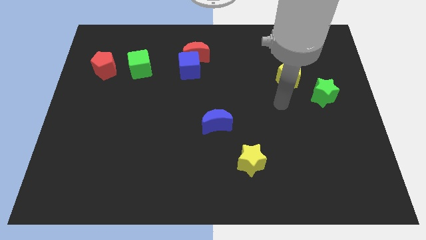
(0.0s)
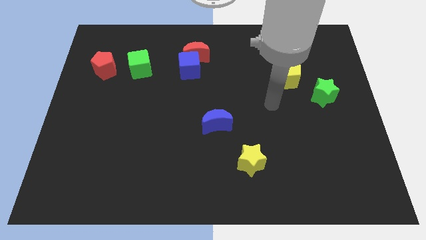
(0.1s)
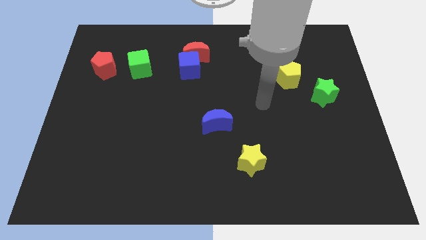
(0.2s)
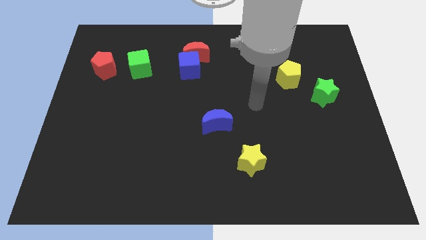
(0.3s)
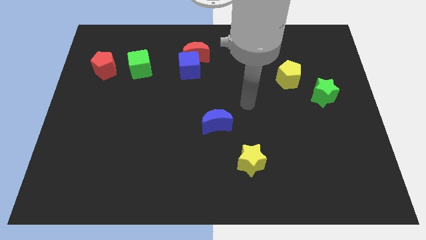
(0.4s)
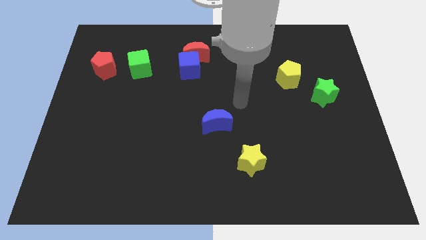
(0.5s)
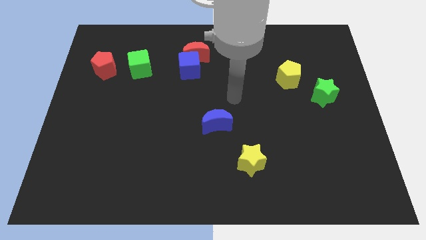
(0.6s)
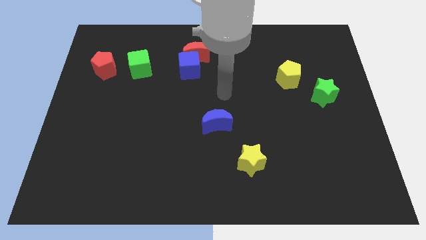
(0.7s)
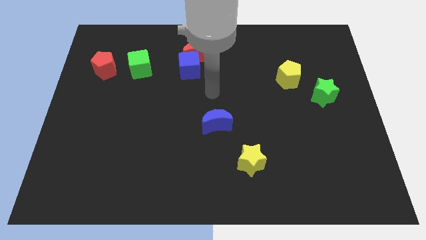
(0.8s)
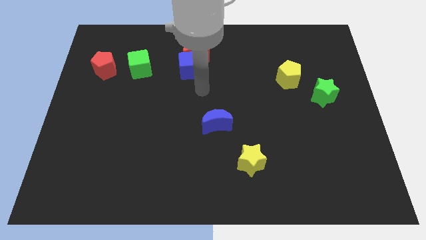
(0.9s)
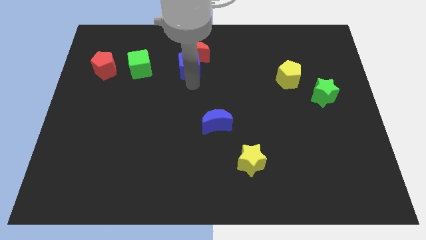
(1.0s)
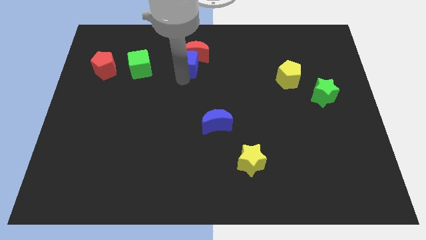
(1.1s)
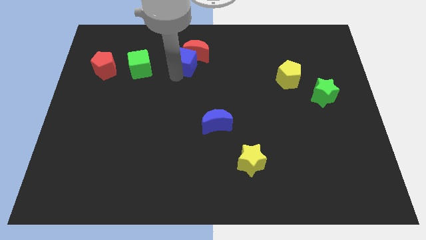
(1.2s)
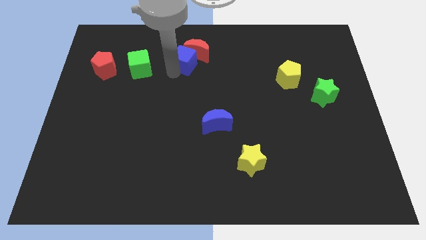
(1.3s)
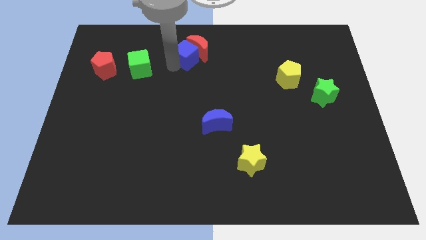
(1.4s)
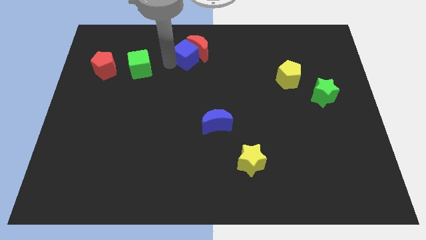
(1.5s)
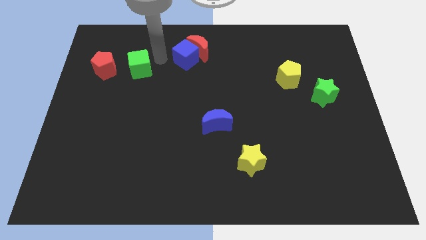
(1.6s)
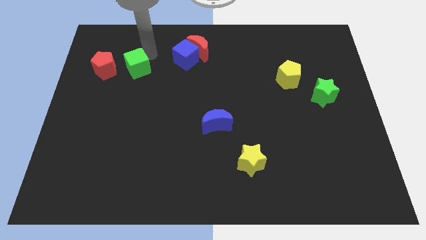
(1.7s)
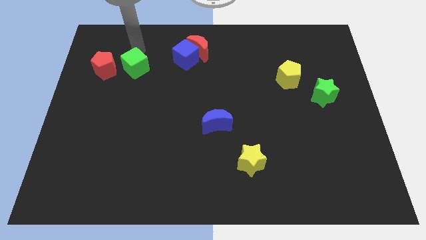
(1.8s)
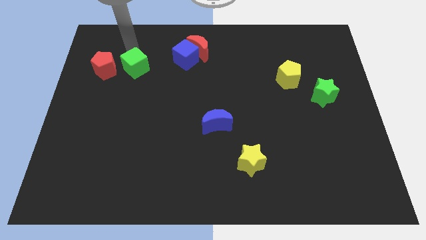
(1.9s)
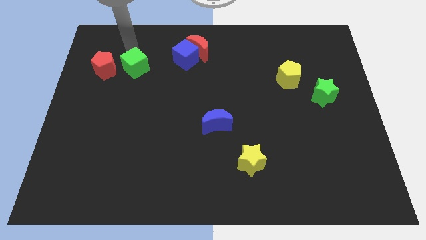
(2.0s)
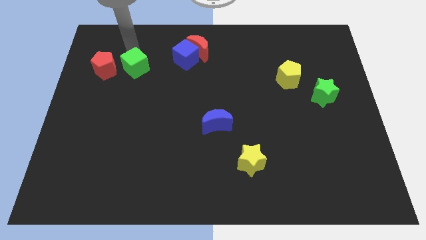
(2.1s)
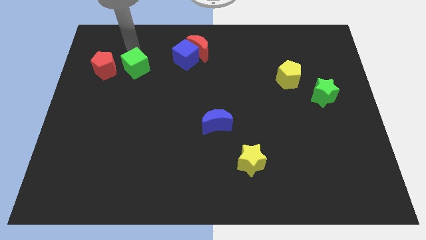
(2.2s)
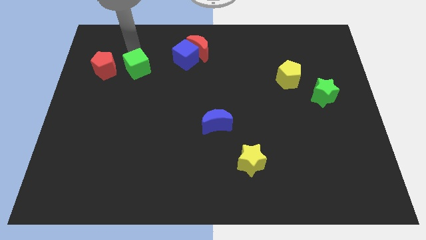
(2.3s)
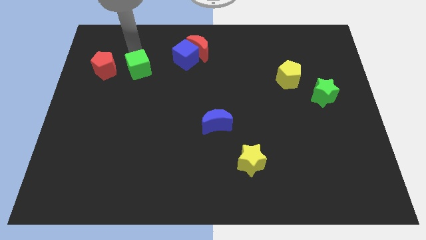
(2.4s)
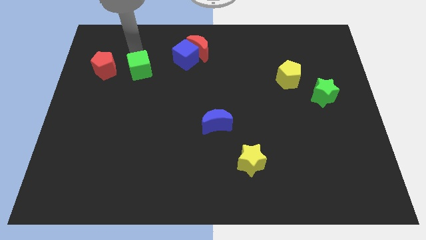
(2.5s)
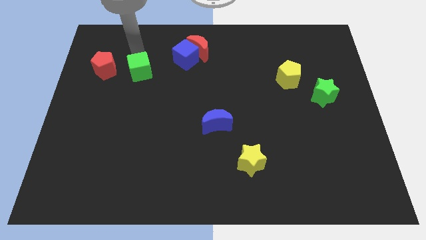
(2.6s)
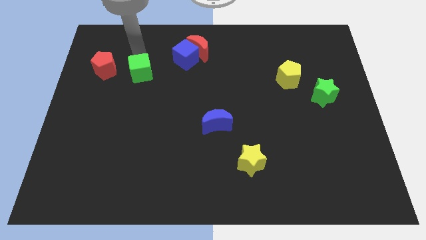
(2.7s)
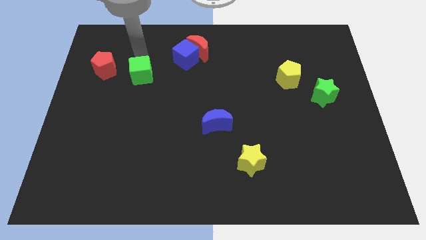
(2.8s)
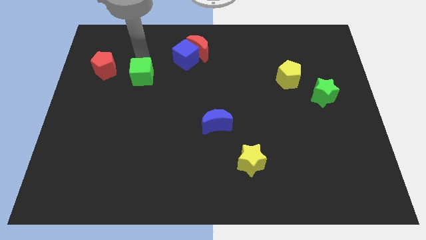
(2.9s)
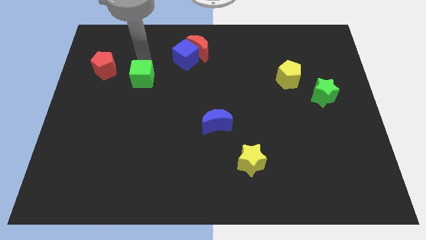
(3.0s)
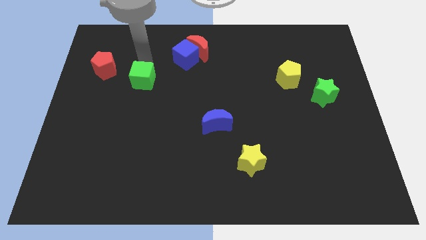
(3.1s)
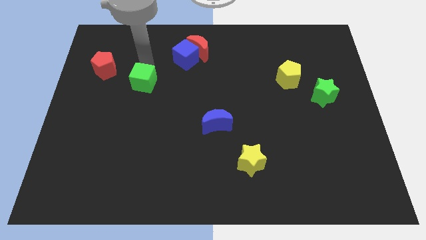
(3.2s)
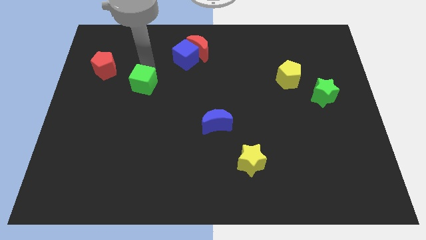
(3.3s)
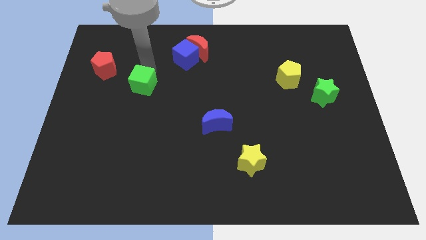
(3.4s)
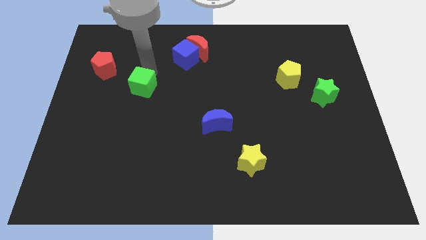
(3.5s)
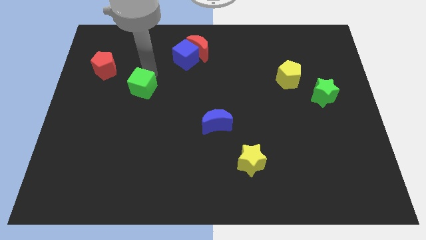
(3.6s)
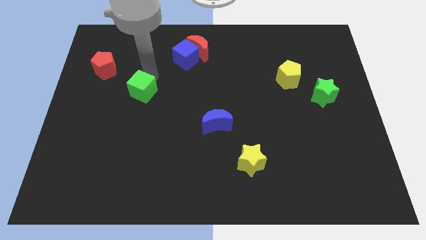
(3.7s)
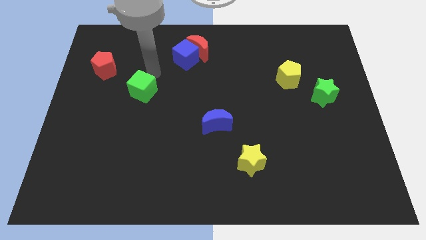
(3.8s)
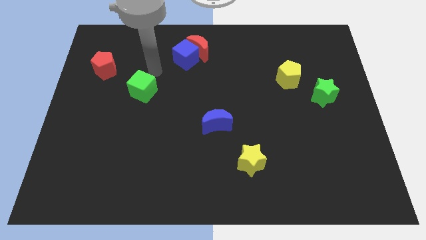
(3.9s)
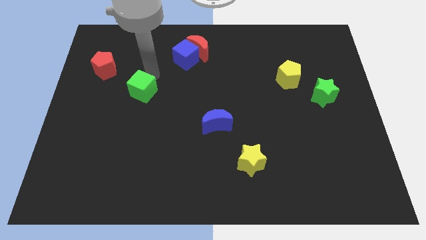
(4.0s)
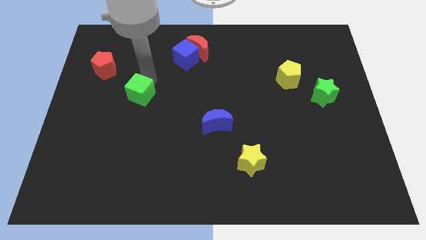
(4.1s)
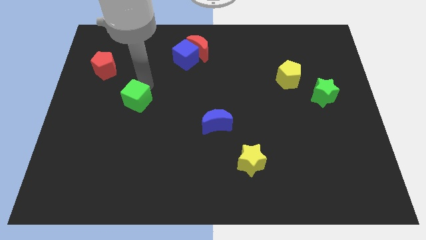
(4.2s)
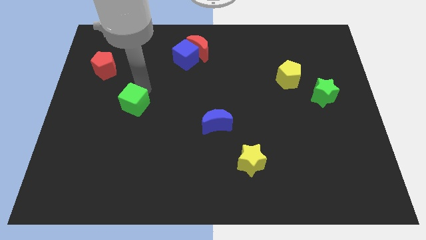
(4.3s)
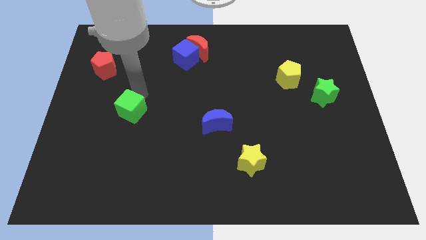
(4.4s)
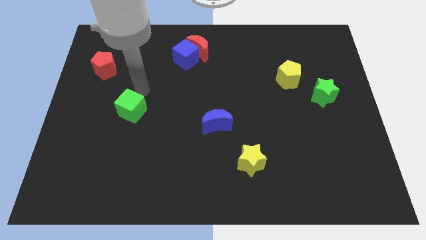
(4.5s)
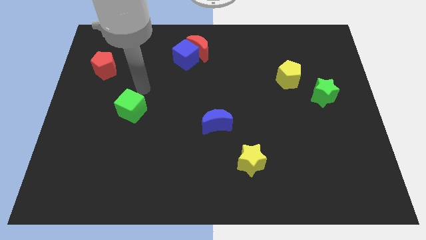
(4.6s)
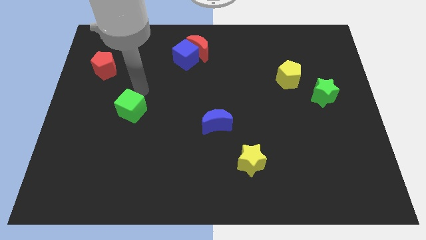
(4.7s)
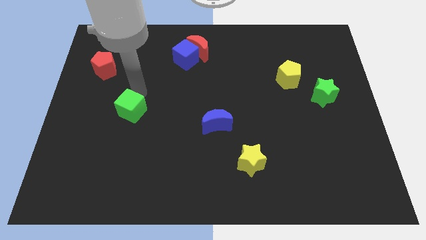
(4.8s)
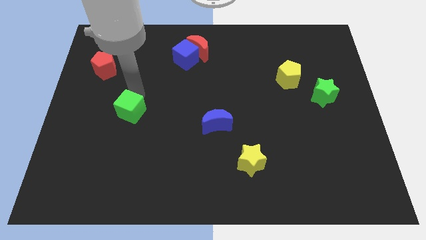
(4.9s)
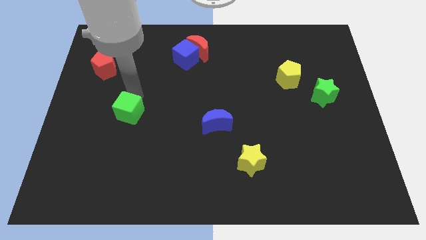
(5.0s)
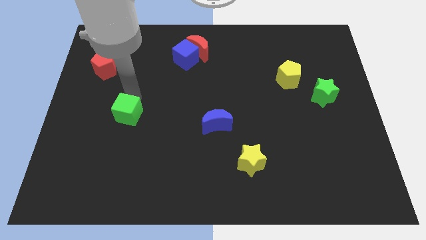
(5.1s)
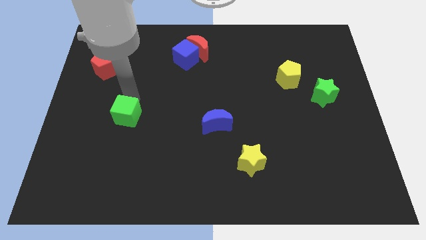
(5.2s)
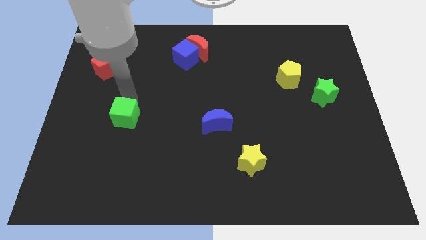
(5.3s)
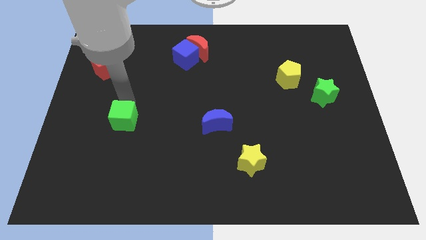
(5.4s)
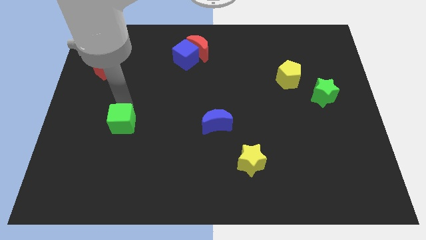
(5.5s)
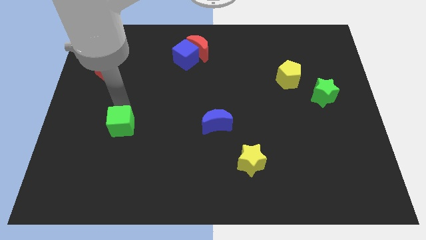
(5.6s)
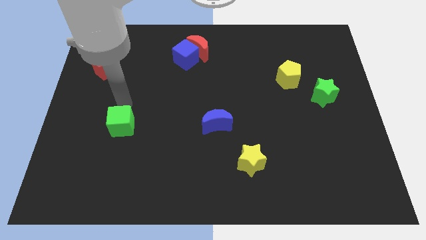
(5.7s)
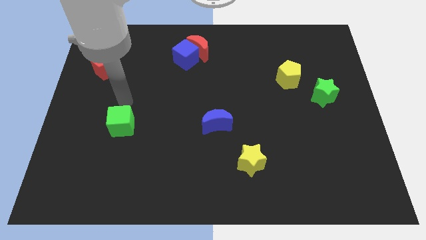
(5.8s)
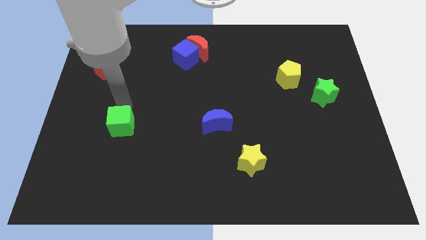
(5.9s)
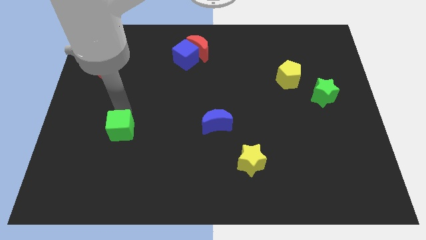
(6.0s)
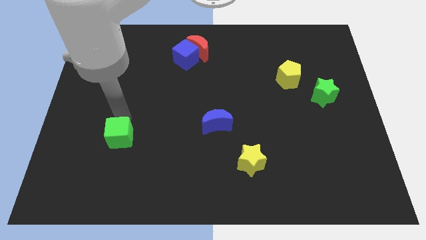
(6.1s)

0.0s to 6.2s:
move the green cube down

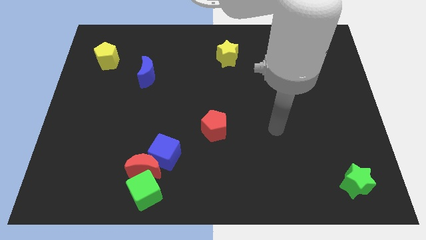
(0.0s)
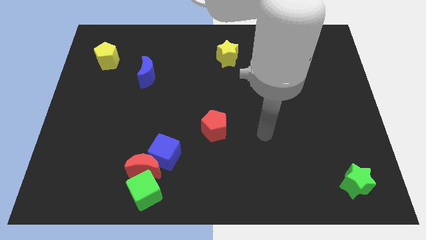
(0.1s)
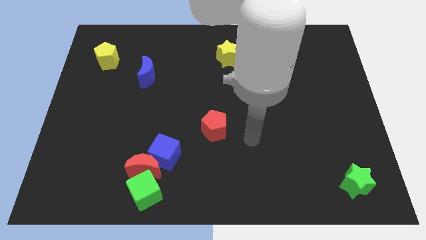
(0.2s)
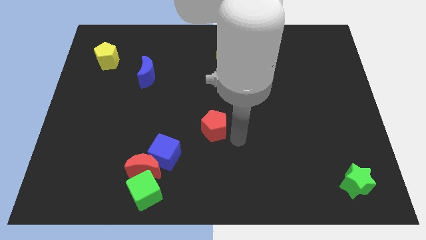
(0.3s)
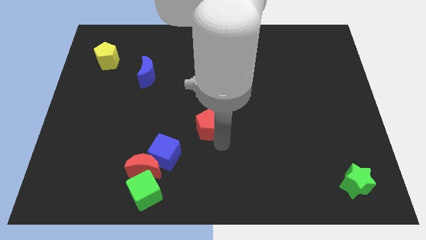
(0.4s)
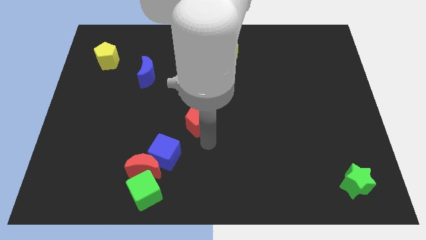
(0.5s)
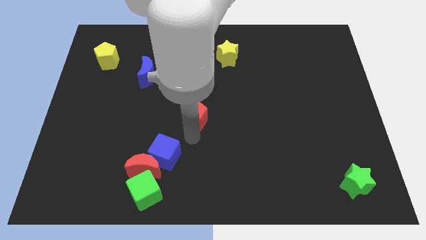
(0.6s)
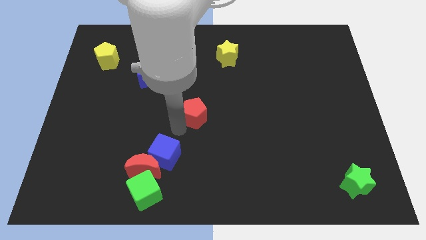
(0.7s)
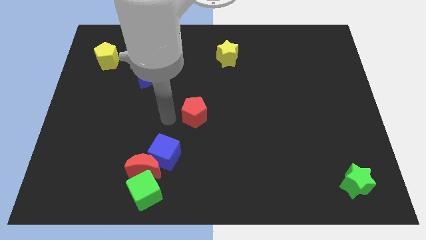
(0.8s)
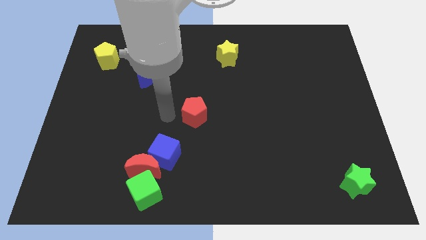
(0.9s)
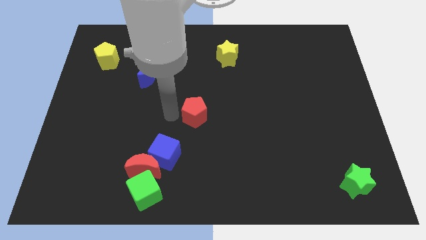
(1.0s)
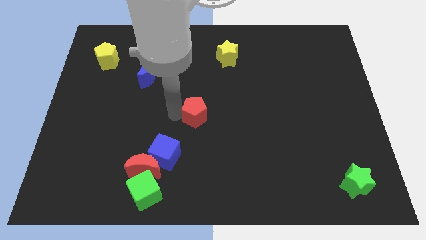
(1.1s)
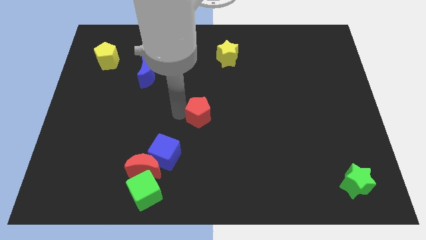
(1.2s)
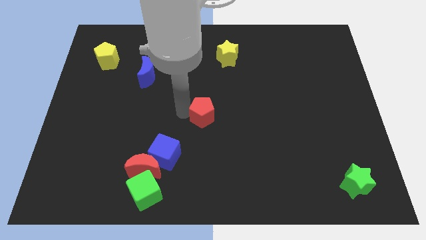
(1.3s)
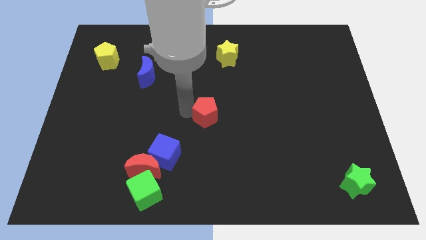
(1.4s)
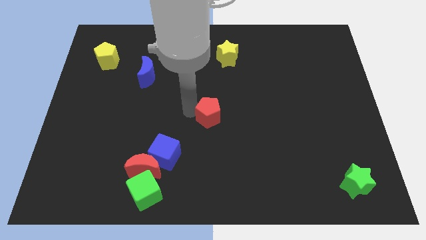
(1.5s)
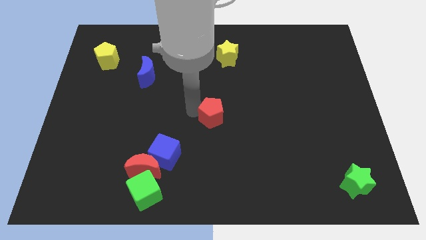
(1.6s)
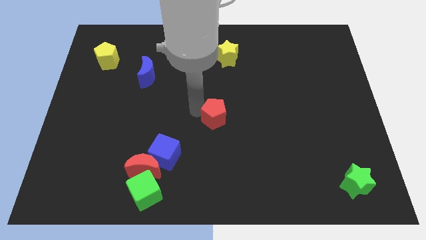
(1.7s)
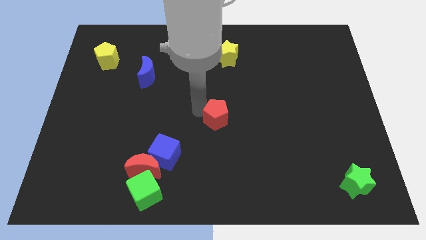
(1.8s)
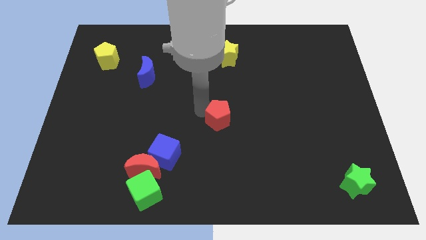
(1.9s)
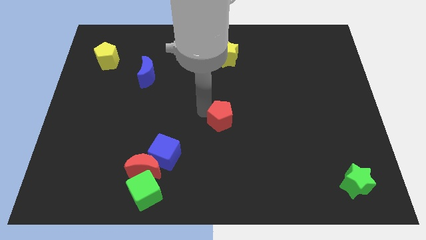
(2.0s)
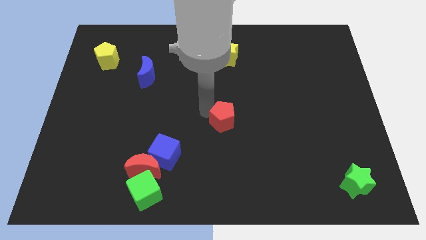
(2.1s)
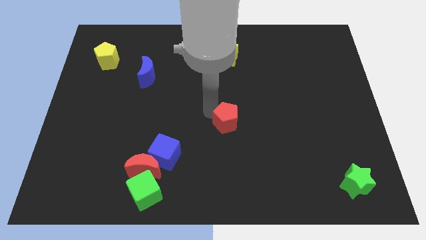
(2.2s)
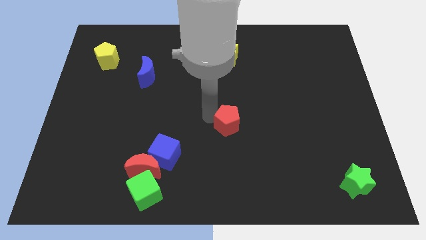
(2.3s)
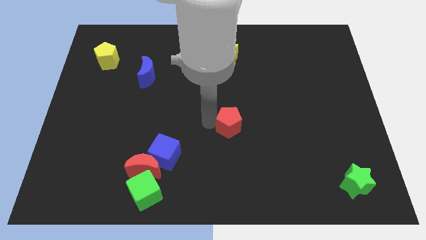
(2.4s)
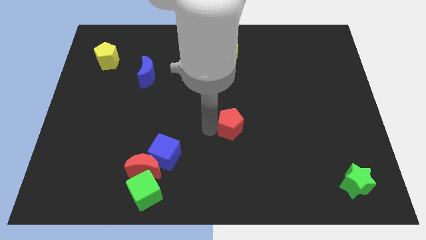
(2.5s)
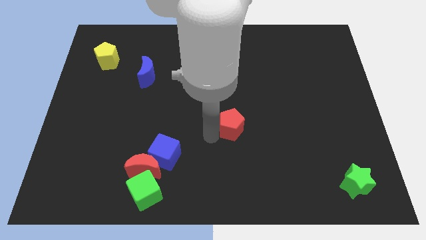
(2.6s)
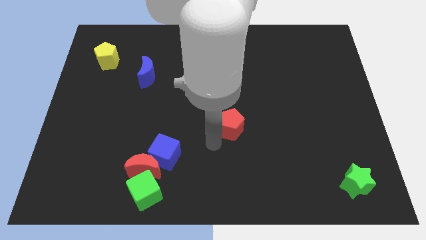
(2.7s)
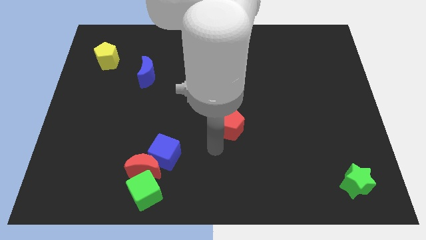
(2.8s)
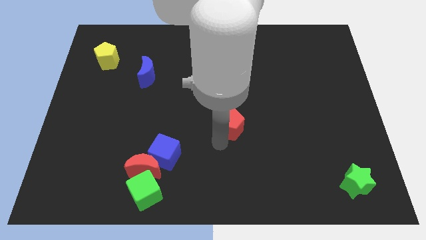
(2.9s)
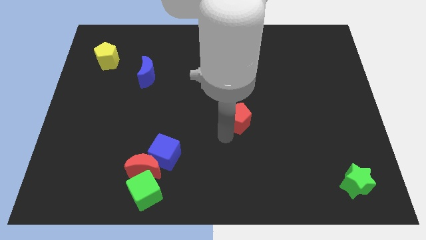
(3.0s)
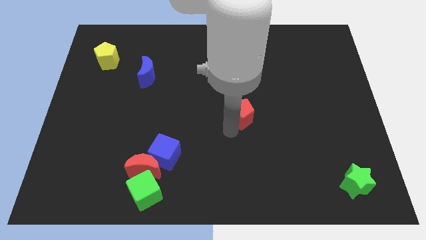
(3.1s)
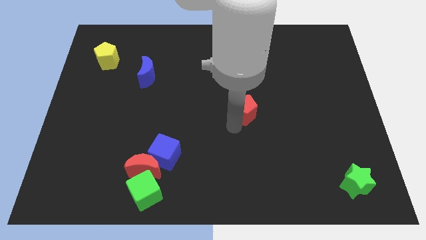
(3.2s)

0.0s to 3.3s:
slide the red pentagon up and right diagonally a bit
